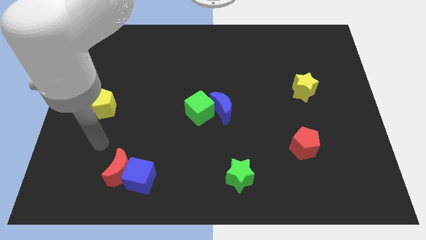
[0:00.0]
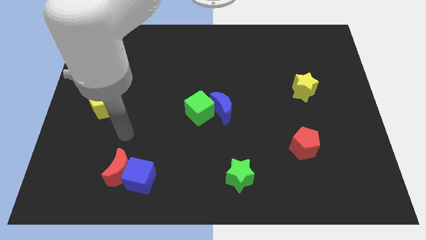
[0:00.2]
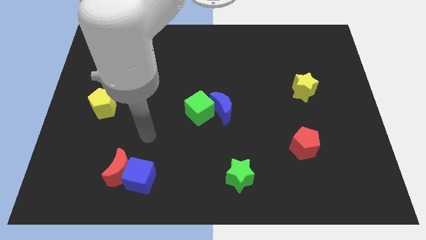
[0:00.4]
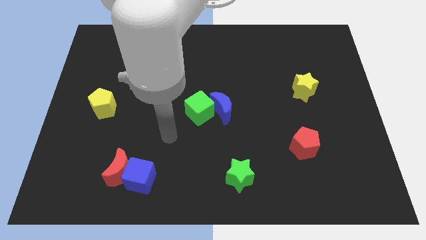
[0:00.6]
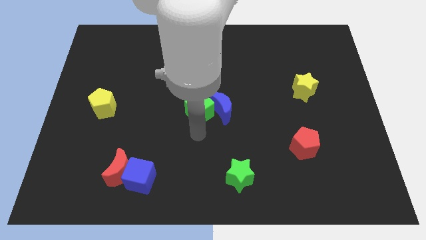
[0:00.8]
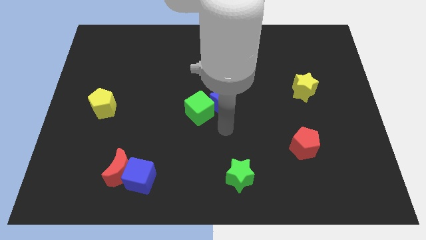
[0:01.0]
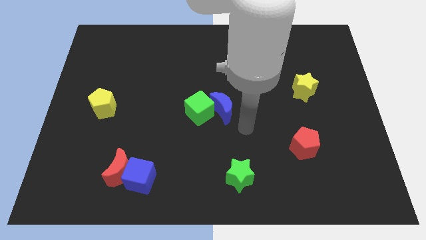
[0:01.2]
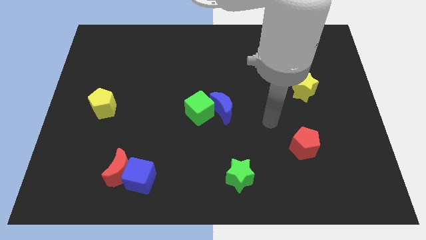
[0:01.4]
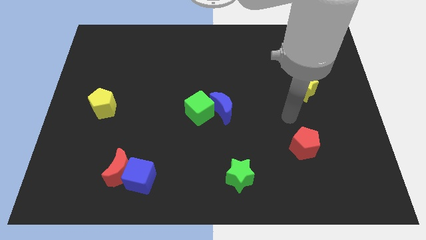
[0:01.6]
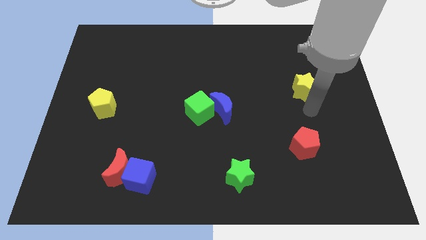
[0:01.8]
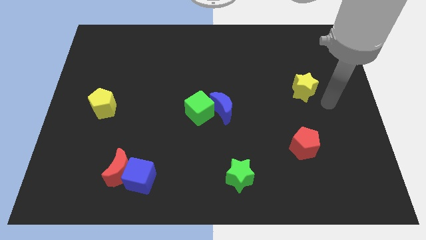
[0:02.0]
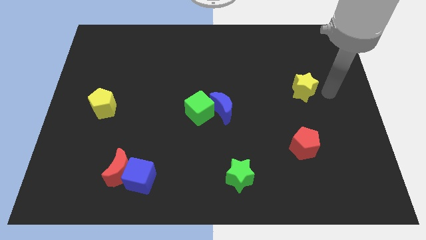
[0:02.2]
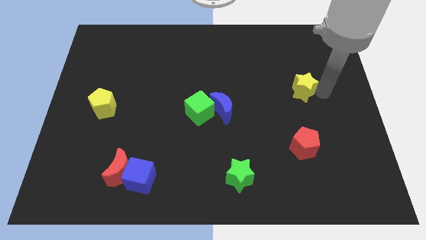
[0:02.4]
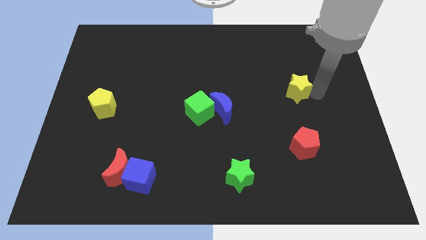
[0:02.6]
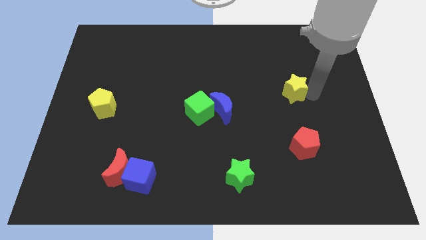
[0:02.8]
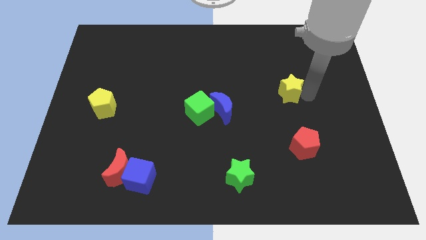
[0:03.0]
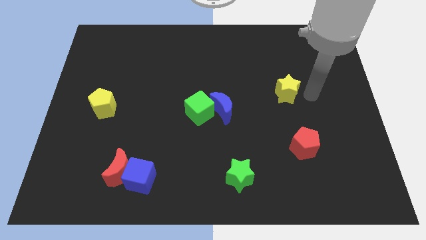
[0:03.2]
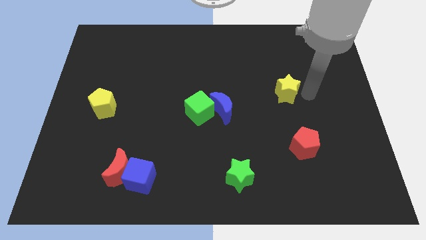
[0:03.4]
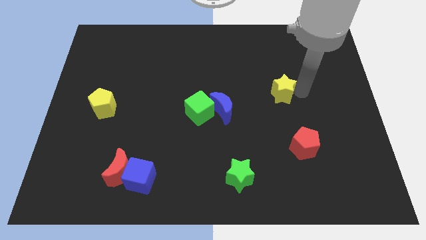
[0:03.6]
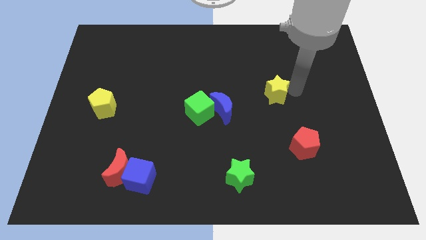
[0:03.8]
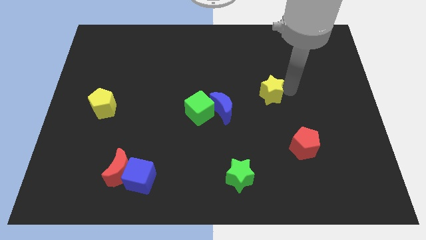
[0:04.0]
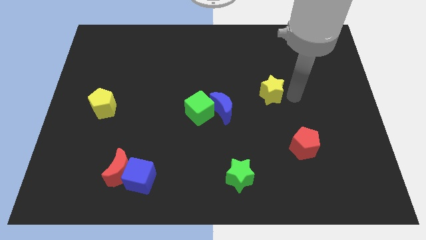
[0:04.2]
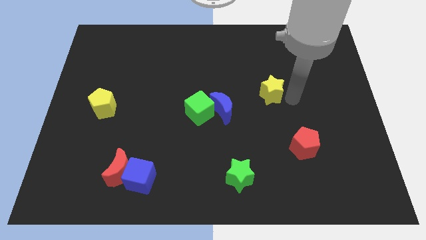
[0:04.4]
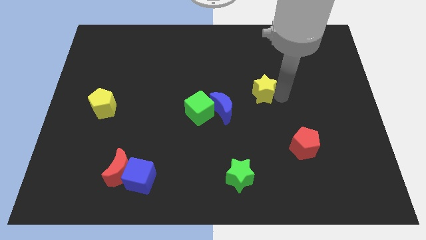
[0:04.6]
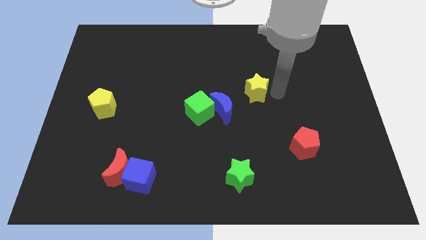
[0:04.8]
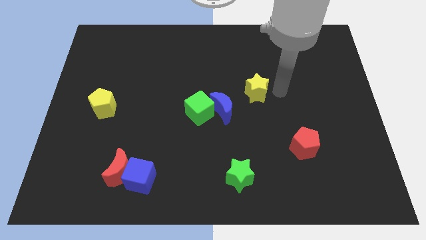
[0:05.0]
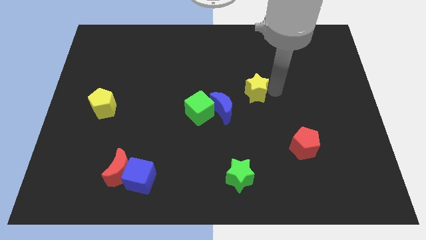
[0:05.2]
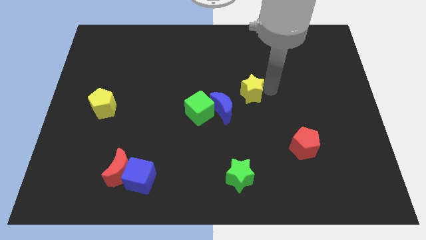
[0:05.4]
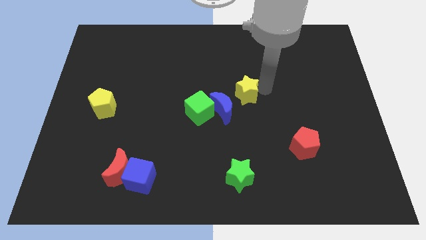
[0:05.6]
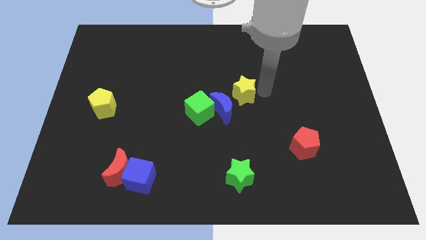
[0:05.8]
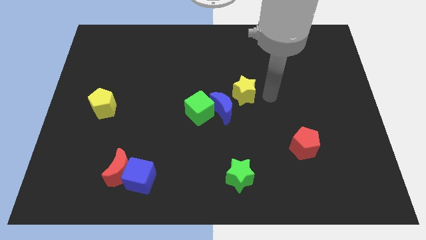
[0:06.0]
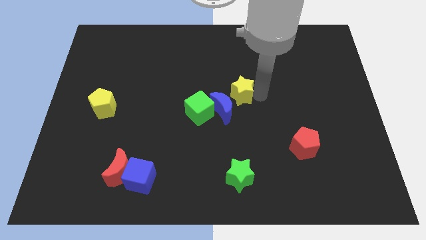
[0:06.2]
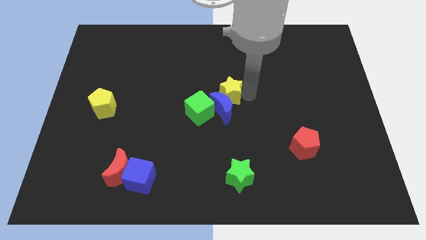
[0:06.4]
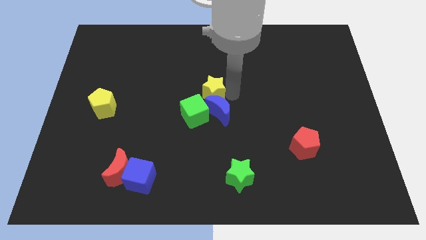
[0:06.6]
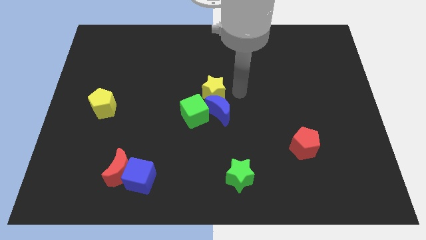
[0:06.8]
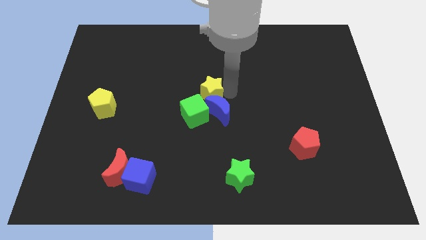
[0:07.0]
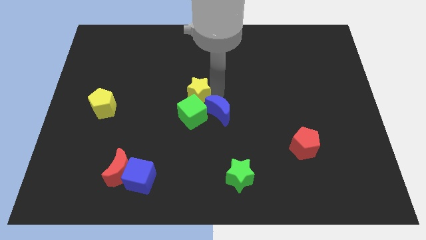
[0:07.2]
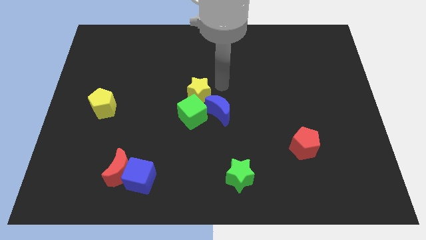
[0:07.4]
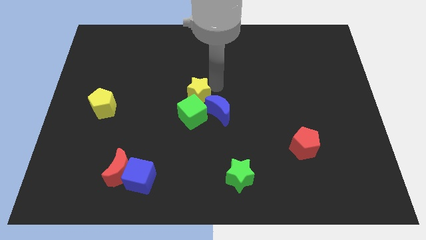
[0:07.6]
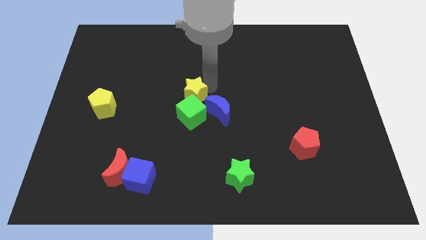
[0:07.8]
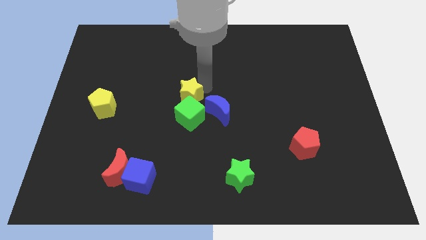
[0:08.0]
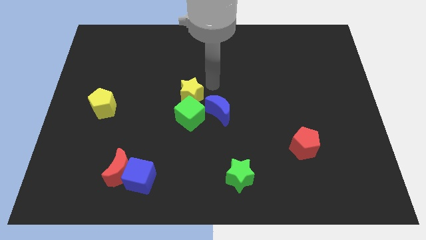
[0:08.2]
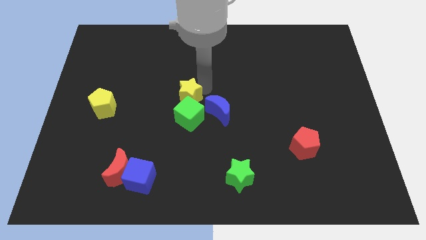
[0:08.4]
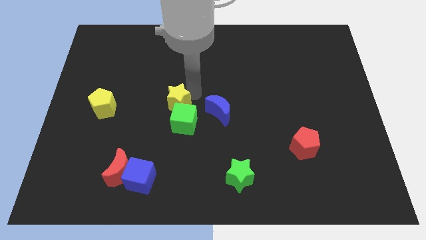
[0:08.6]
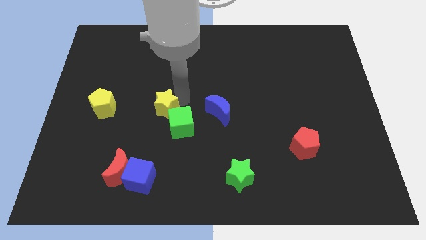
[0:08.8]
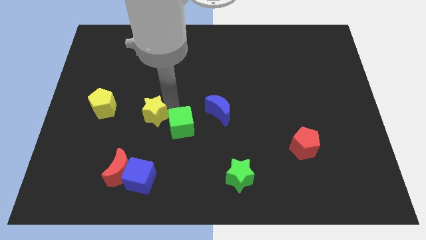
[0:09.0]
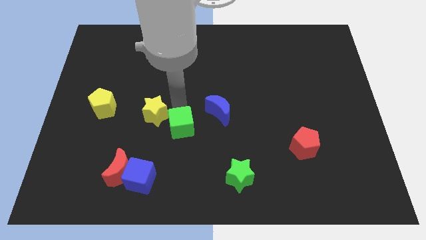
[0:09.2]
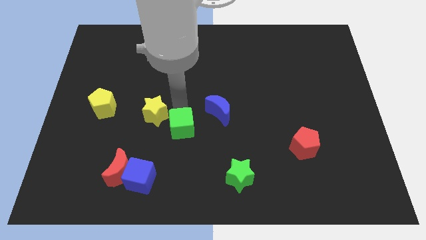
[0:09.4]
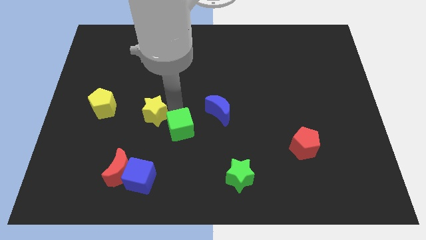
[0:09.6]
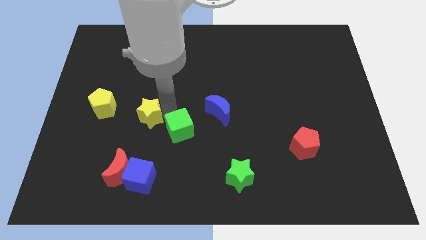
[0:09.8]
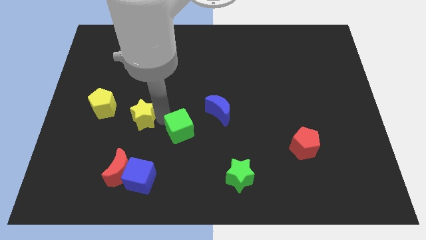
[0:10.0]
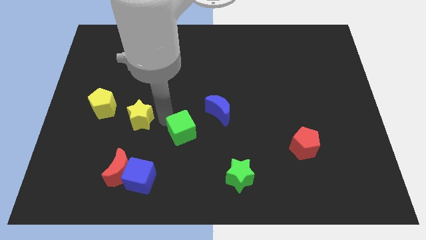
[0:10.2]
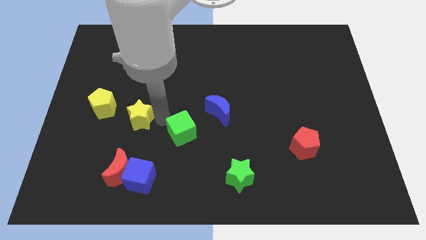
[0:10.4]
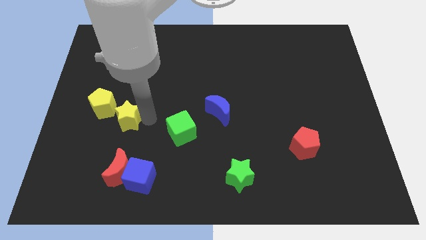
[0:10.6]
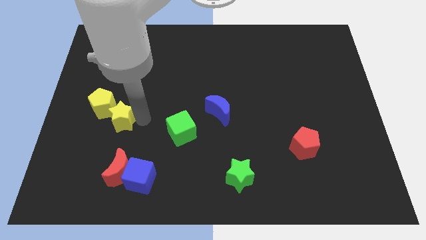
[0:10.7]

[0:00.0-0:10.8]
put the yellow star close to the yellow pentagon
